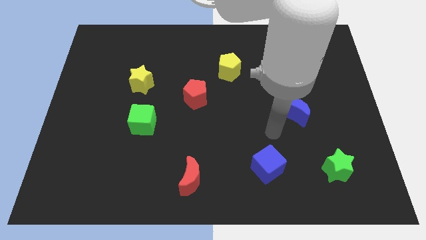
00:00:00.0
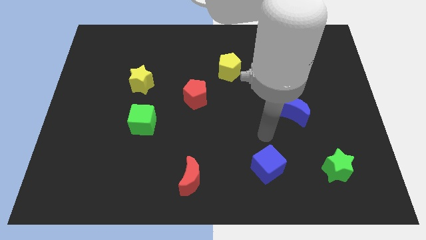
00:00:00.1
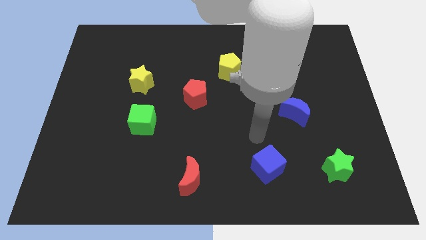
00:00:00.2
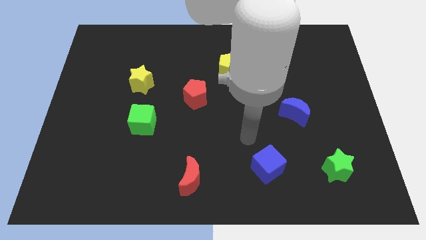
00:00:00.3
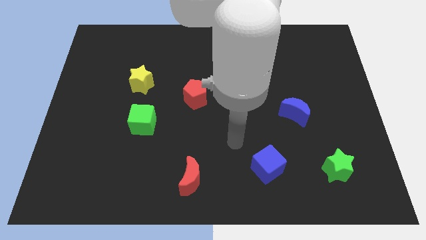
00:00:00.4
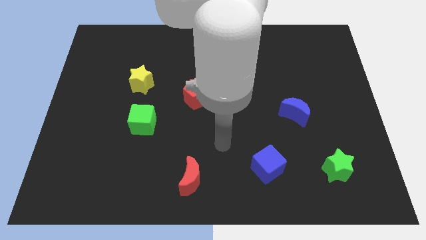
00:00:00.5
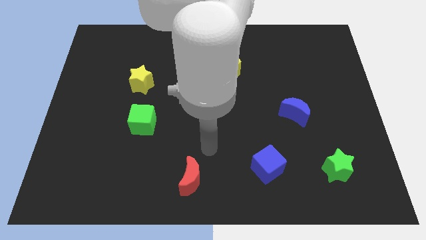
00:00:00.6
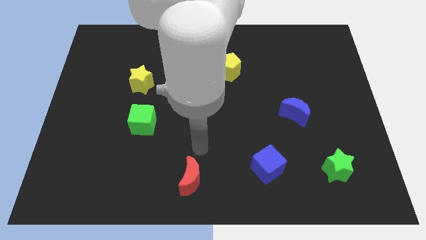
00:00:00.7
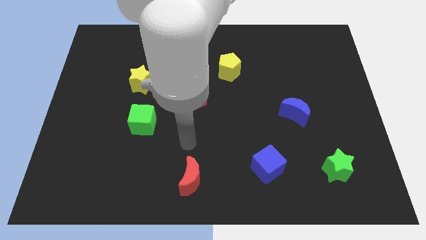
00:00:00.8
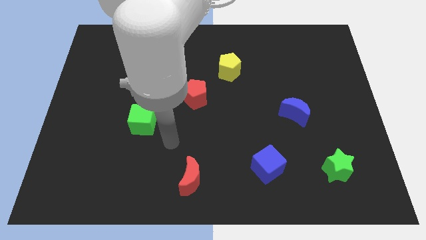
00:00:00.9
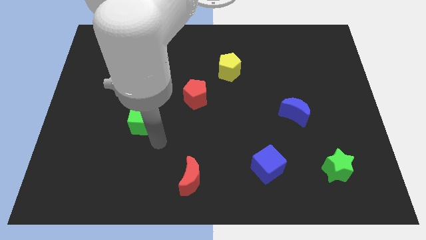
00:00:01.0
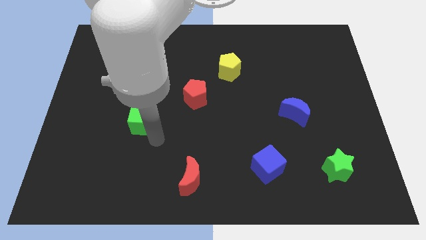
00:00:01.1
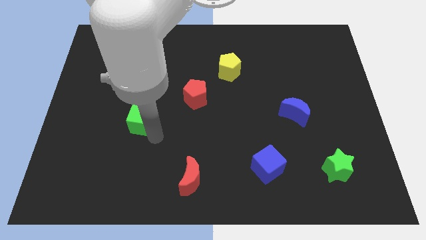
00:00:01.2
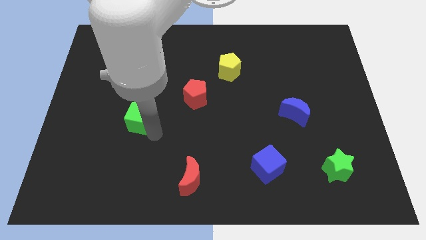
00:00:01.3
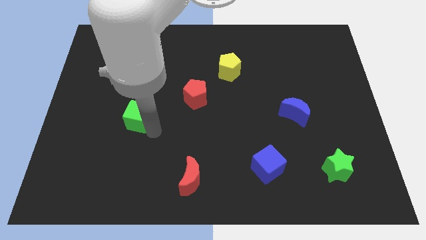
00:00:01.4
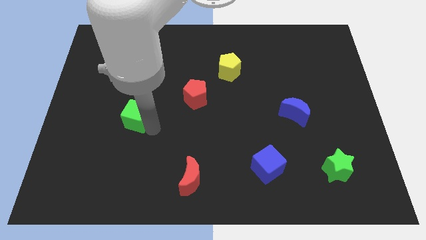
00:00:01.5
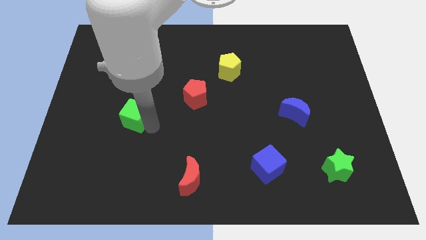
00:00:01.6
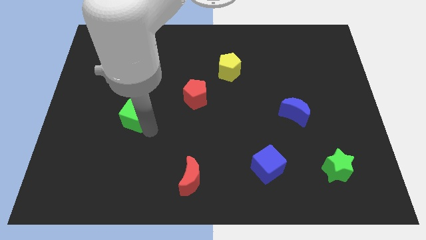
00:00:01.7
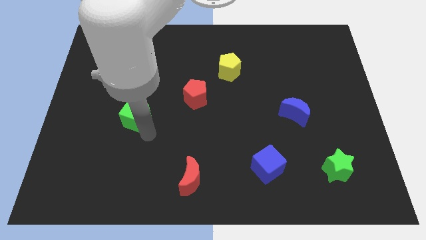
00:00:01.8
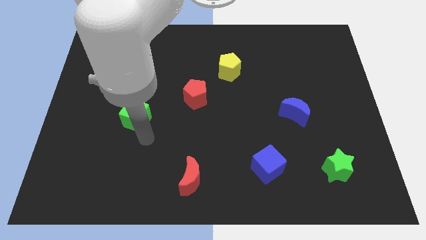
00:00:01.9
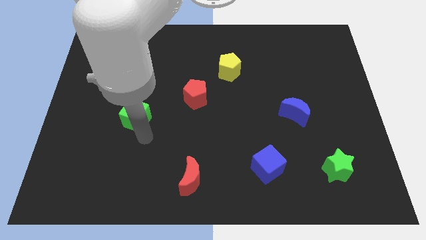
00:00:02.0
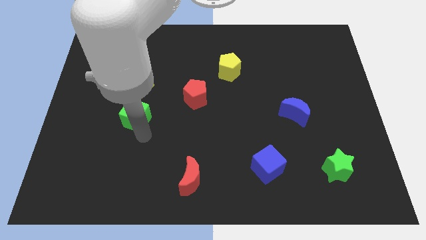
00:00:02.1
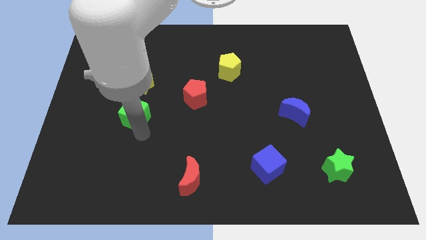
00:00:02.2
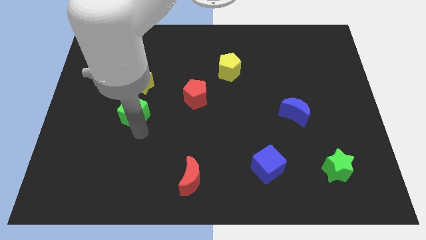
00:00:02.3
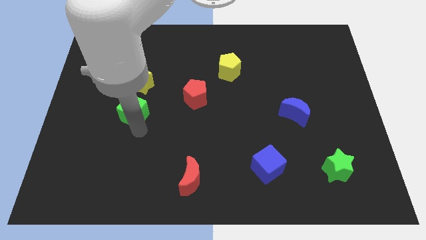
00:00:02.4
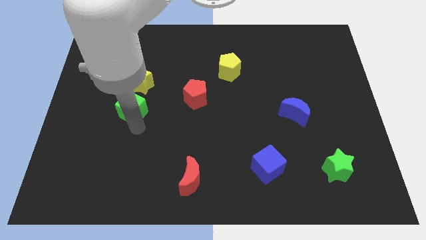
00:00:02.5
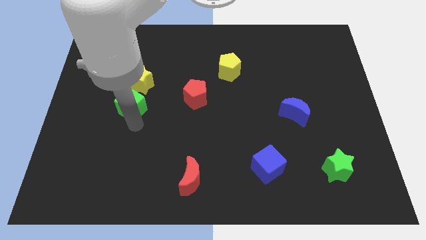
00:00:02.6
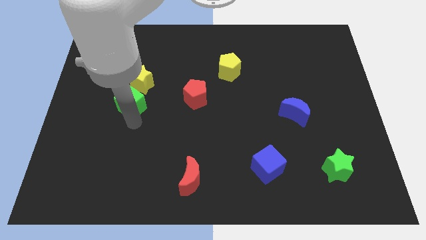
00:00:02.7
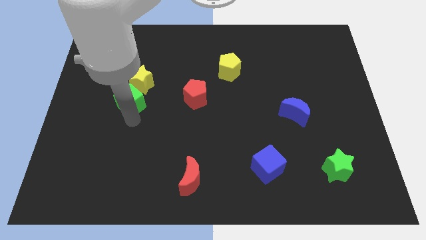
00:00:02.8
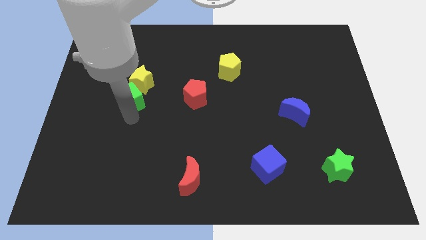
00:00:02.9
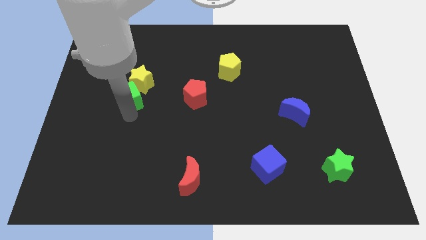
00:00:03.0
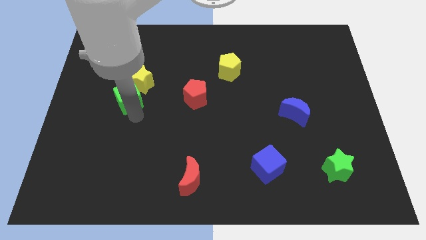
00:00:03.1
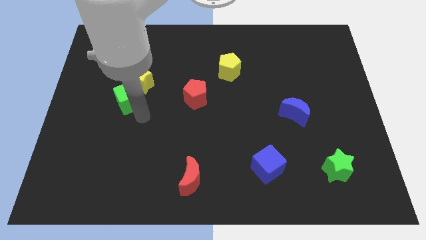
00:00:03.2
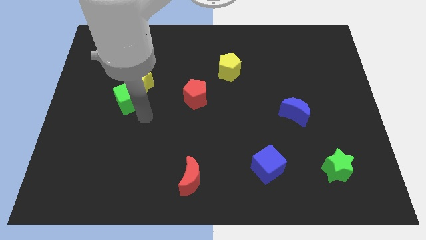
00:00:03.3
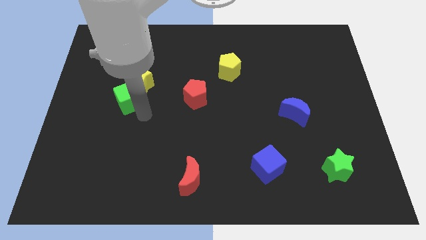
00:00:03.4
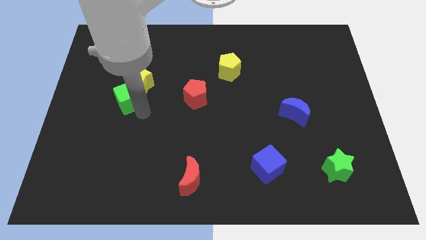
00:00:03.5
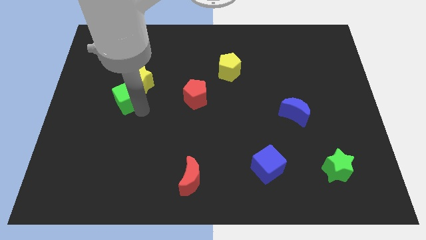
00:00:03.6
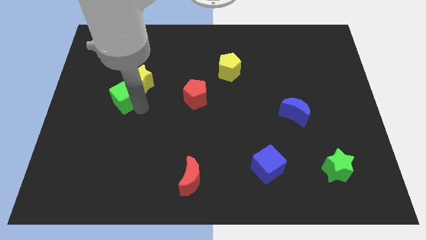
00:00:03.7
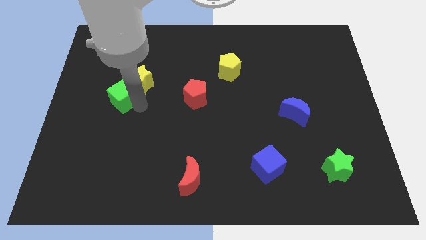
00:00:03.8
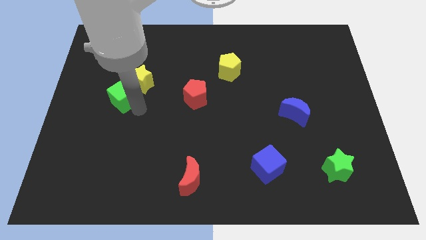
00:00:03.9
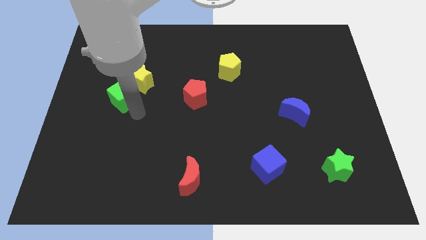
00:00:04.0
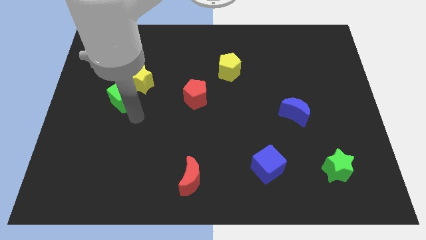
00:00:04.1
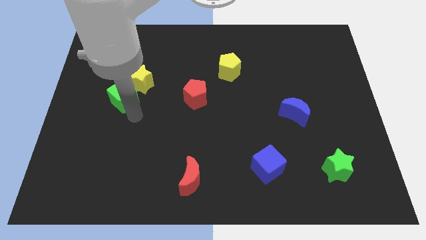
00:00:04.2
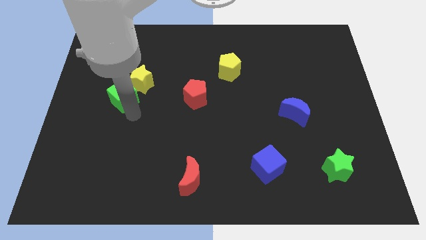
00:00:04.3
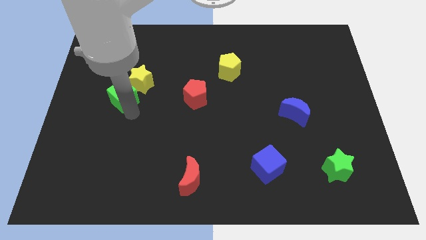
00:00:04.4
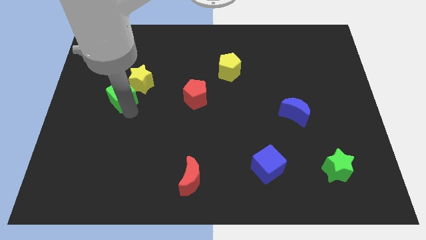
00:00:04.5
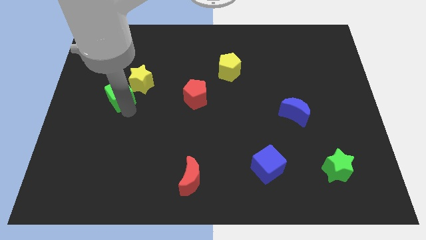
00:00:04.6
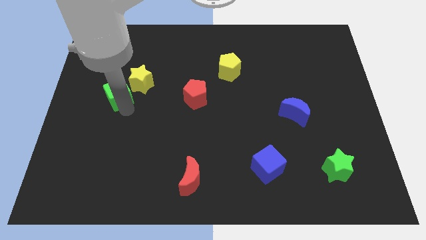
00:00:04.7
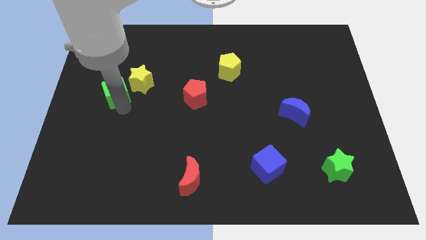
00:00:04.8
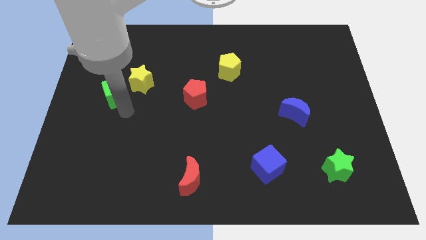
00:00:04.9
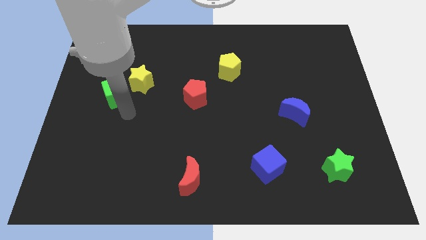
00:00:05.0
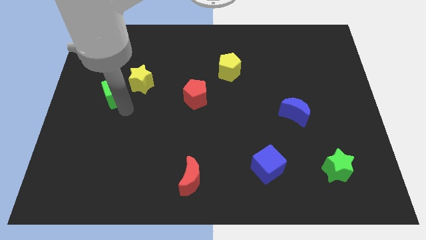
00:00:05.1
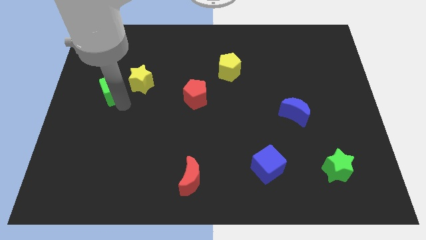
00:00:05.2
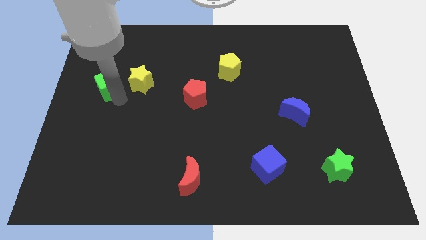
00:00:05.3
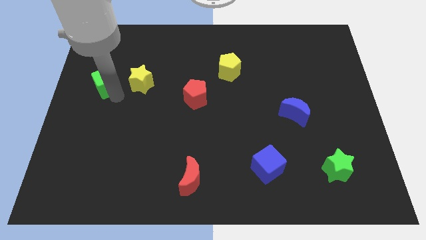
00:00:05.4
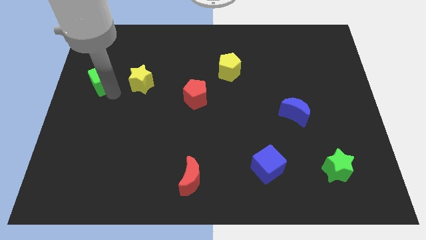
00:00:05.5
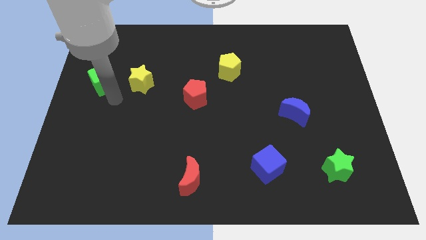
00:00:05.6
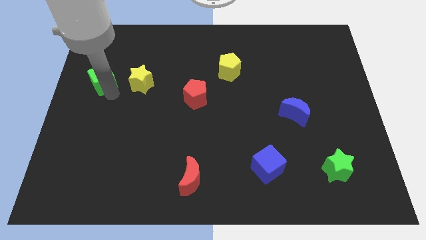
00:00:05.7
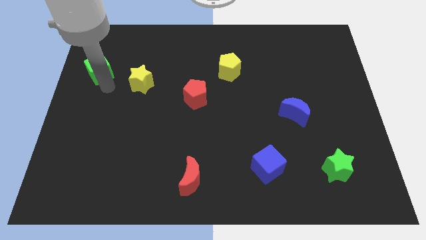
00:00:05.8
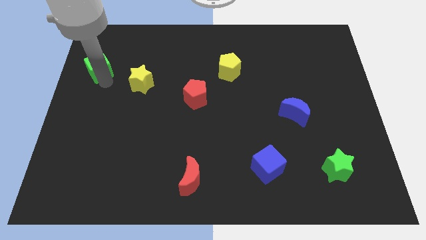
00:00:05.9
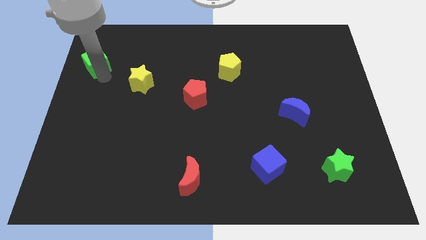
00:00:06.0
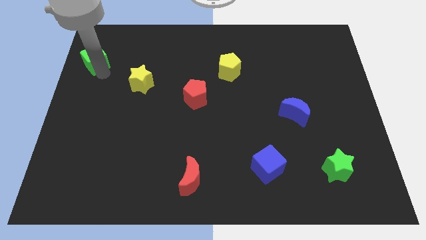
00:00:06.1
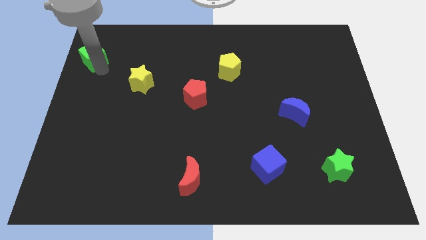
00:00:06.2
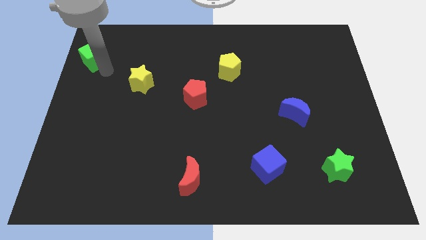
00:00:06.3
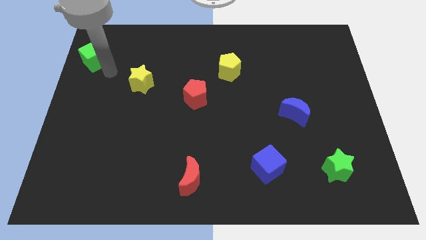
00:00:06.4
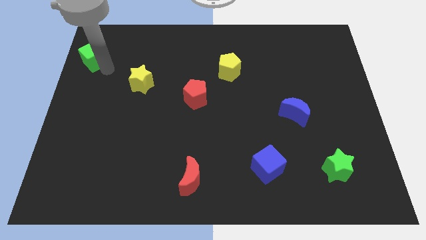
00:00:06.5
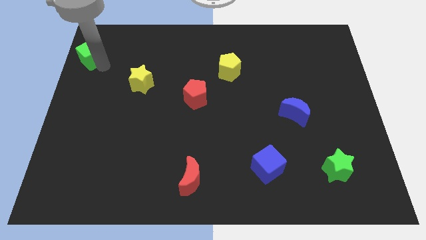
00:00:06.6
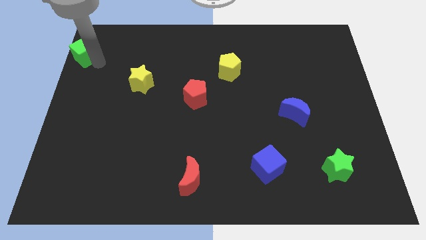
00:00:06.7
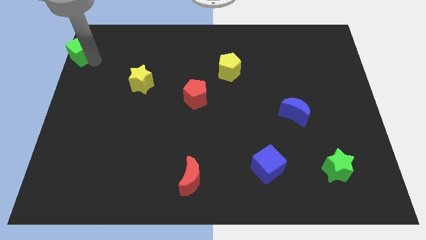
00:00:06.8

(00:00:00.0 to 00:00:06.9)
move the green cube to the top left of the board
